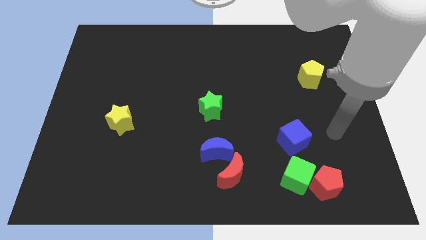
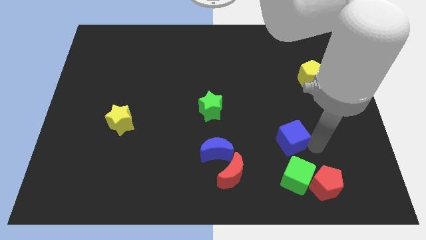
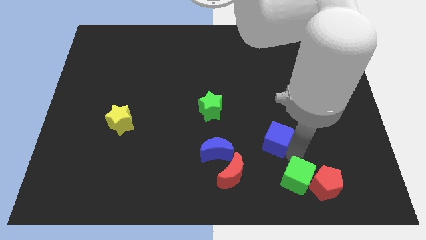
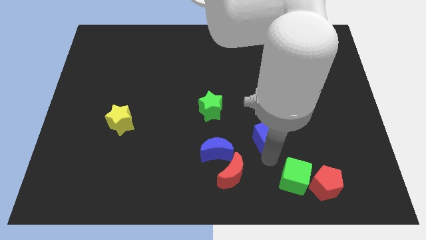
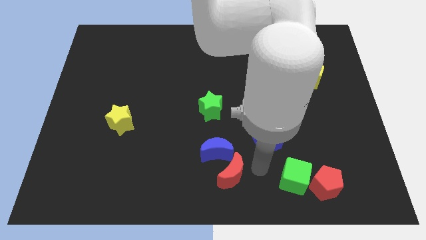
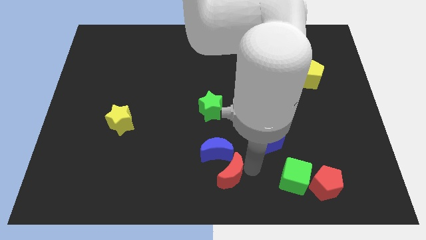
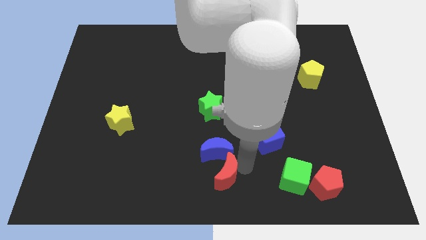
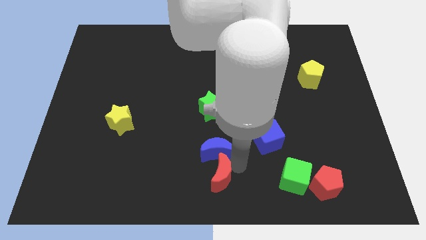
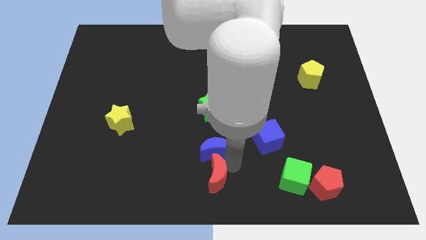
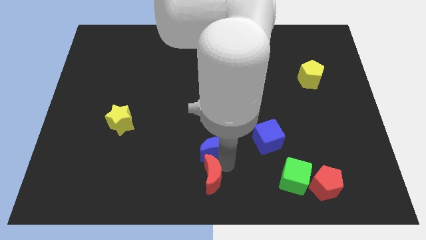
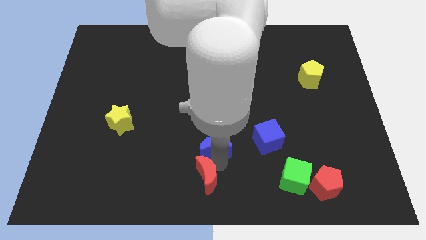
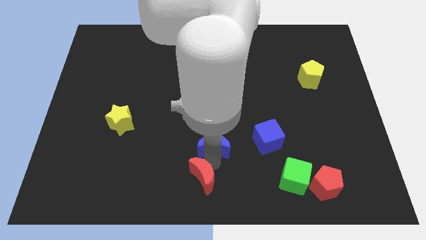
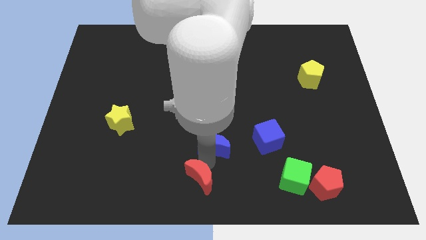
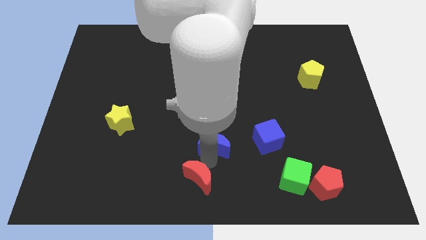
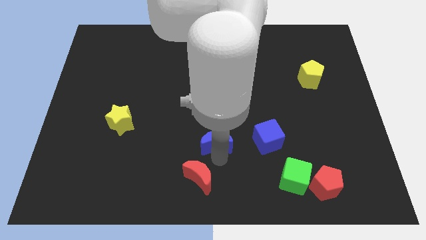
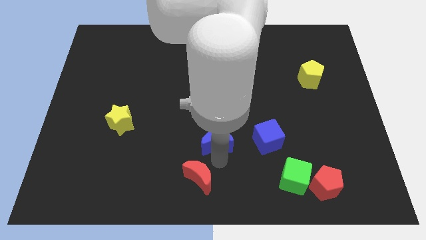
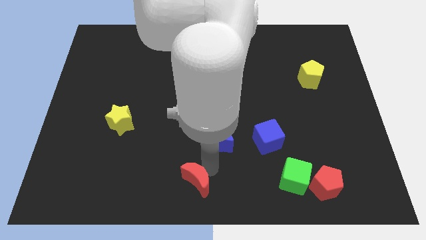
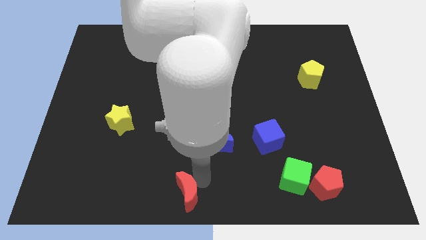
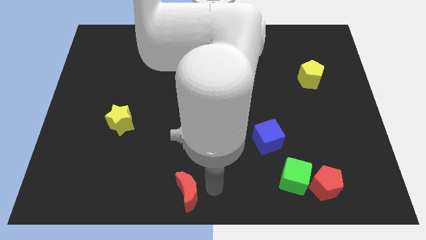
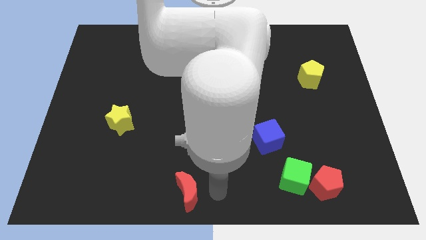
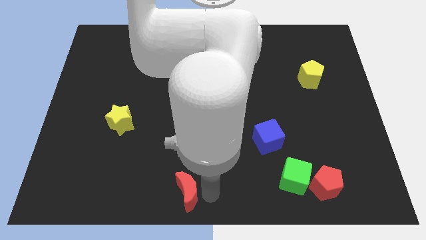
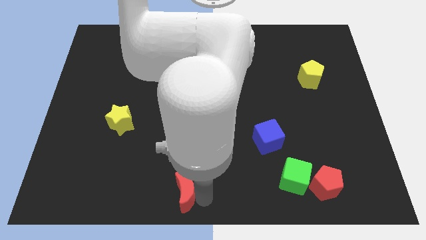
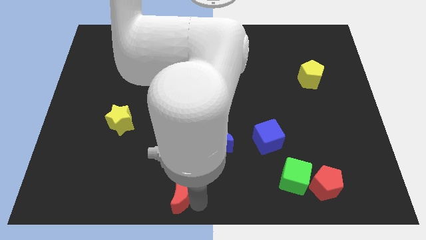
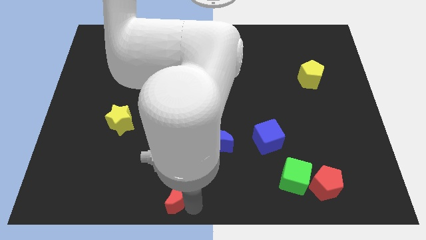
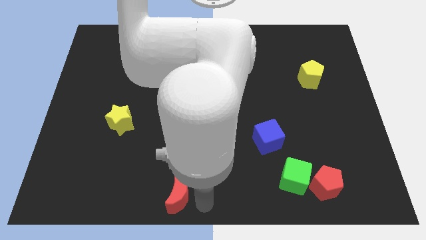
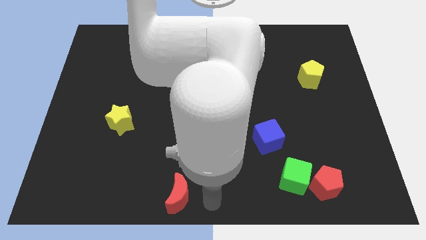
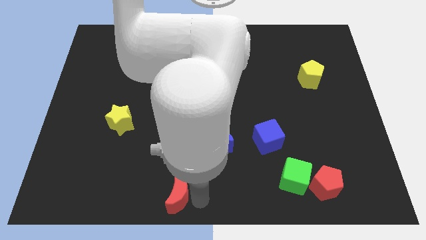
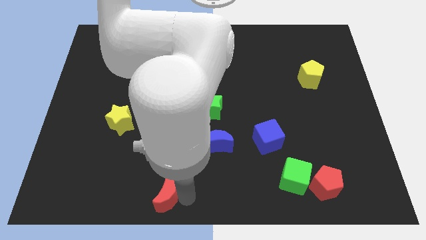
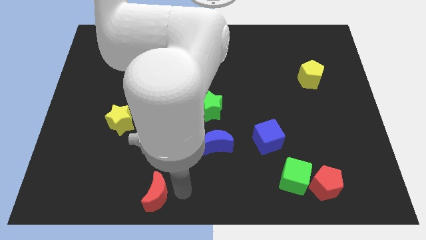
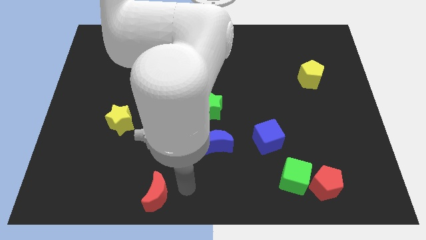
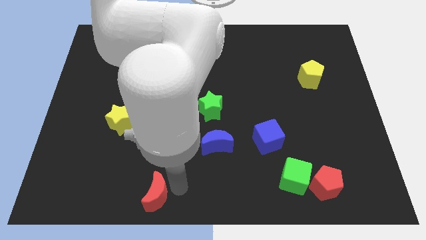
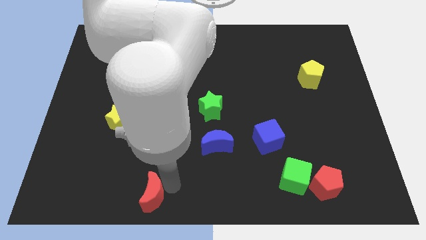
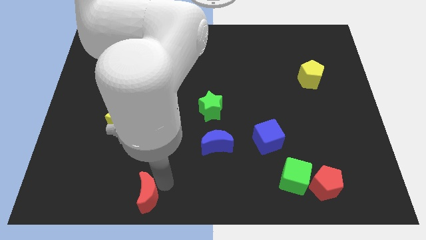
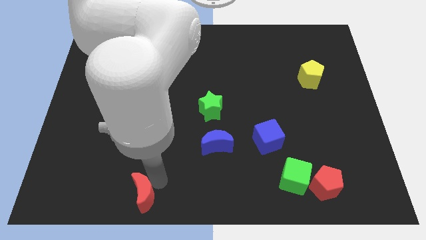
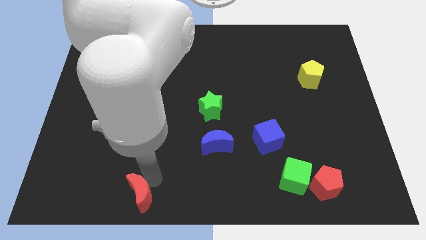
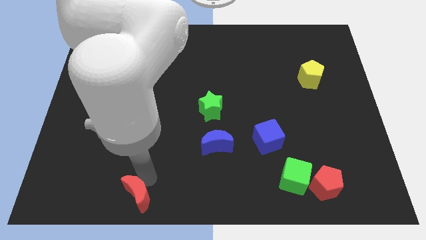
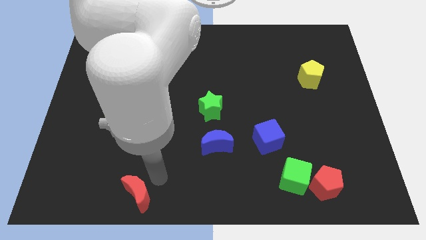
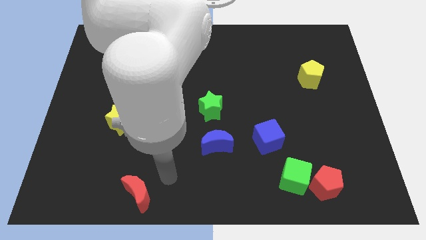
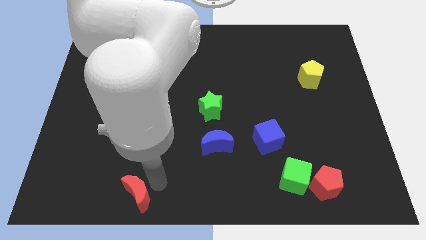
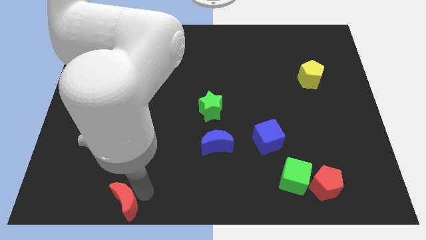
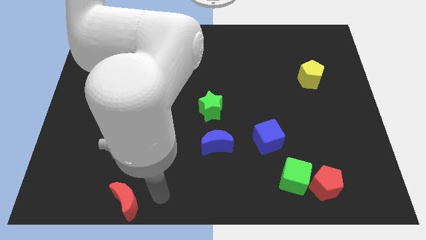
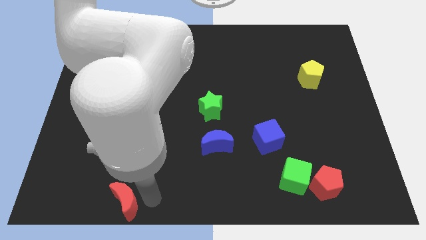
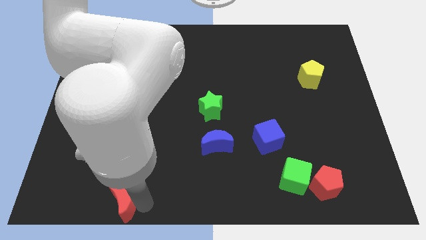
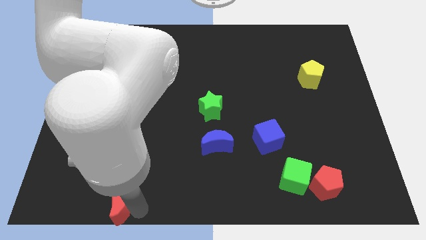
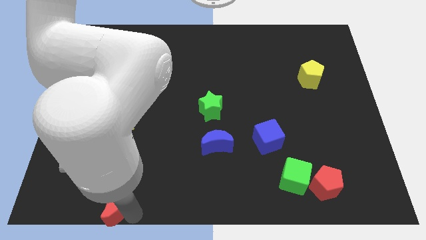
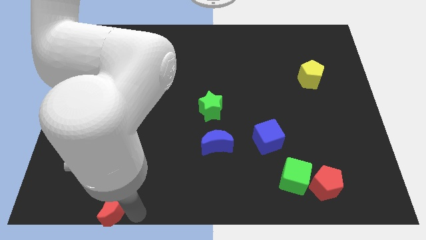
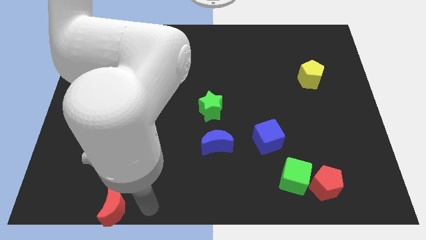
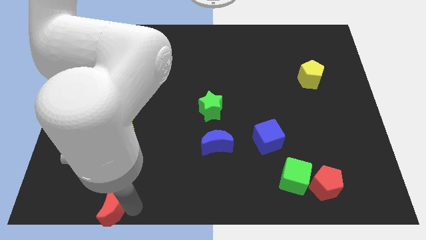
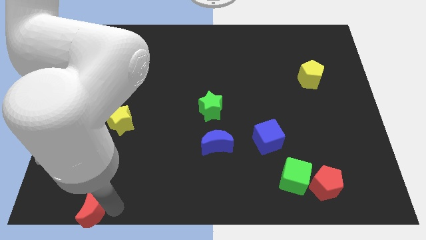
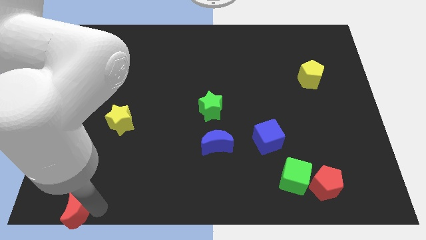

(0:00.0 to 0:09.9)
put the red moon to the bottom left of the board

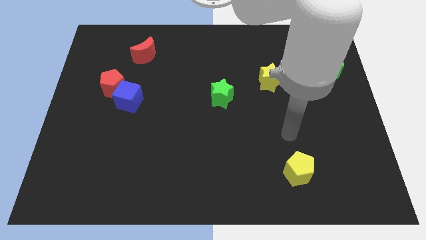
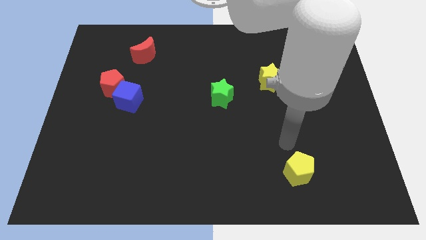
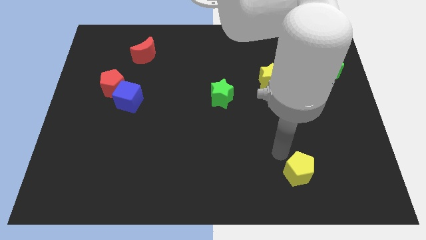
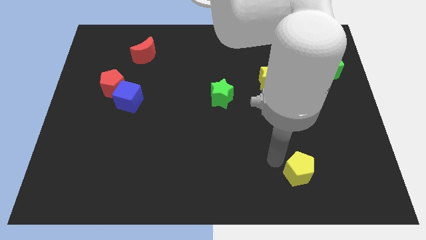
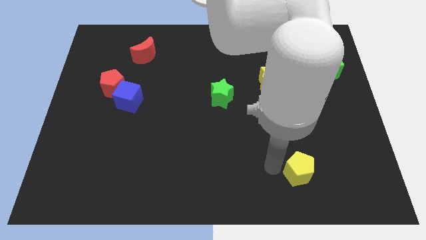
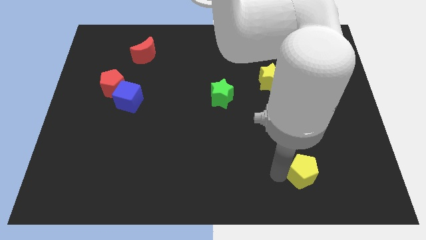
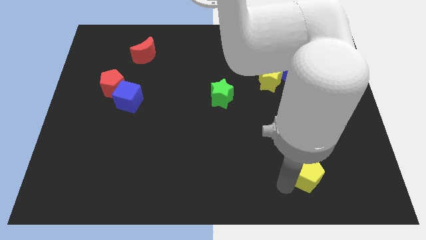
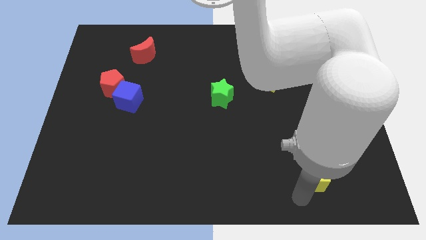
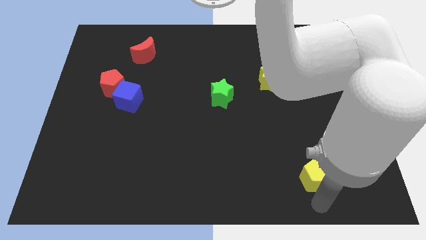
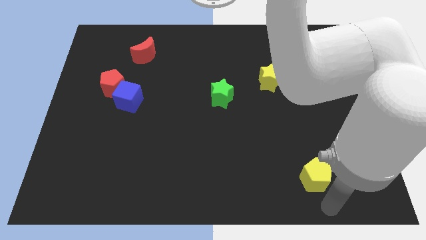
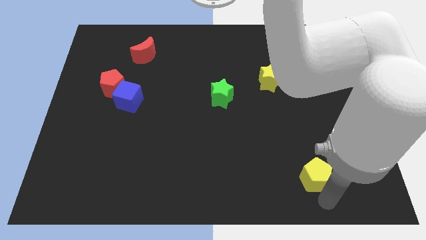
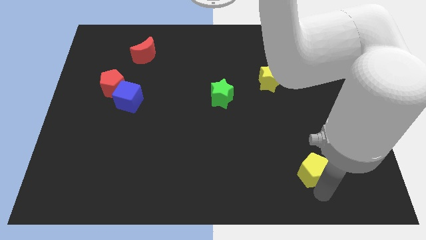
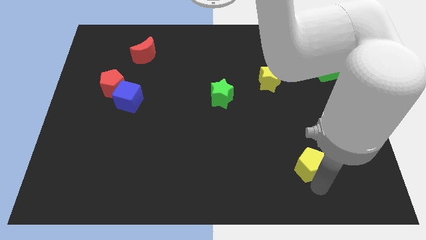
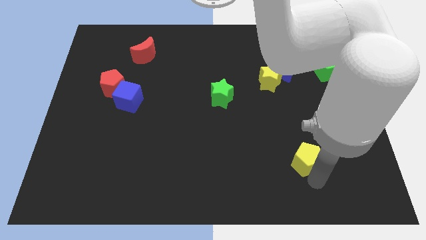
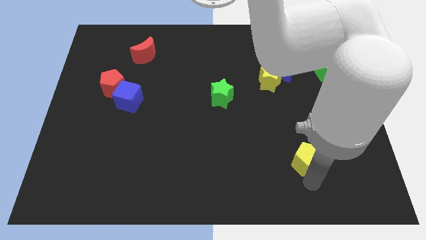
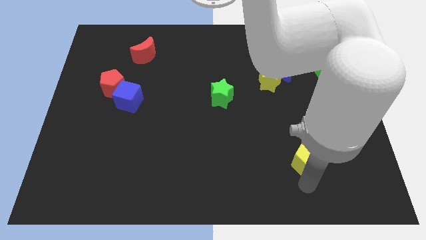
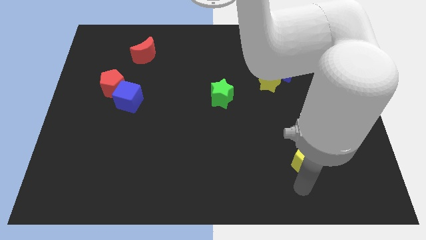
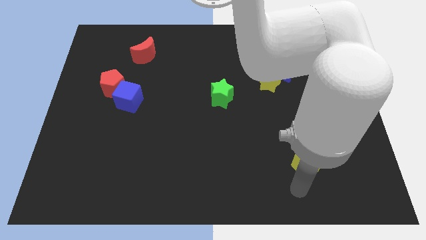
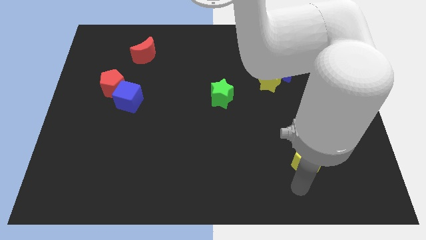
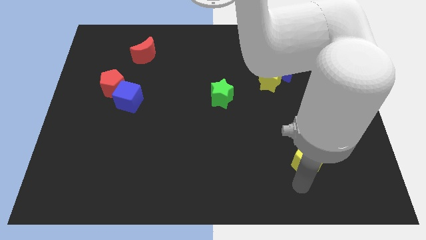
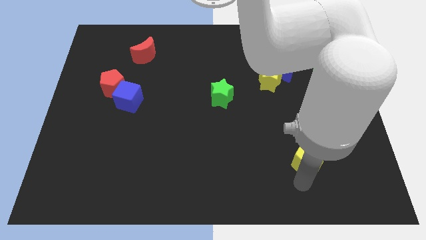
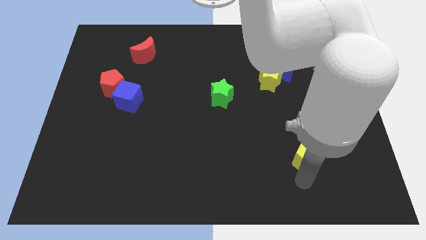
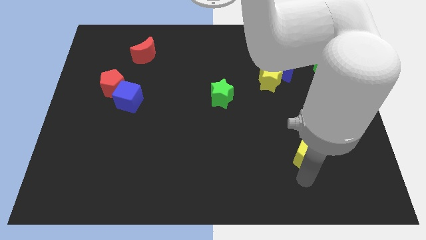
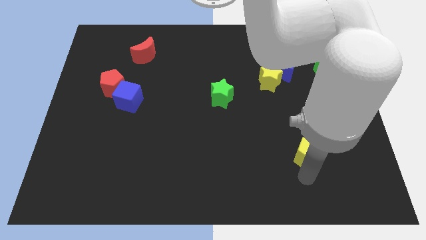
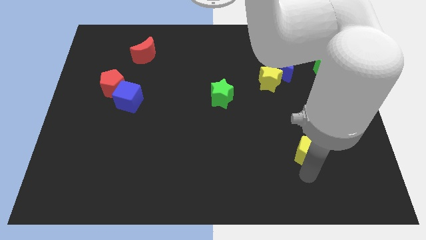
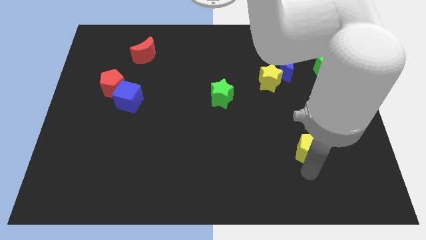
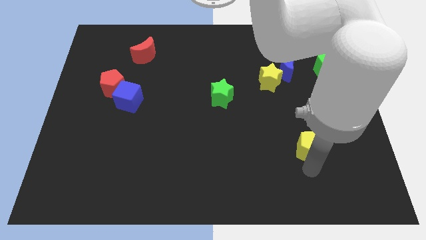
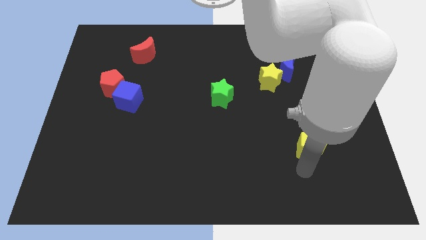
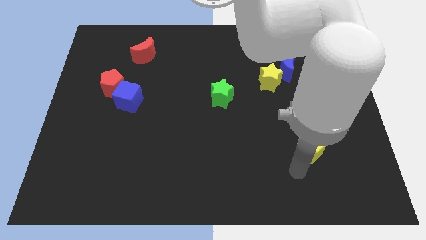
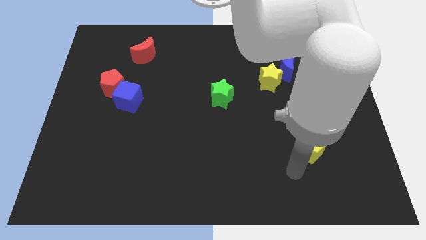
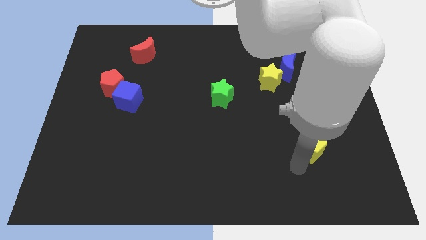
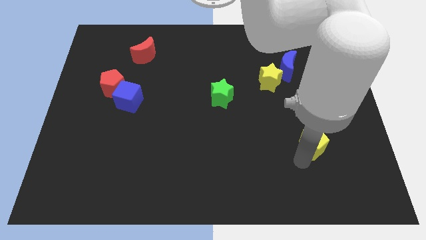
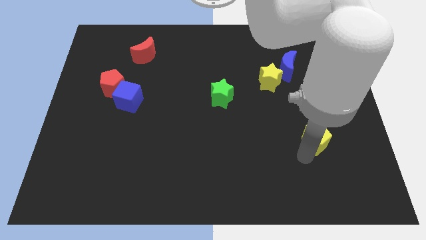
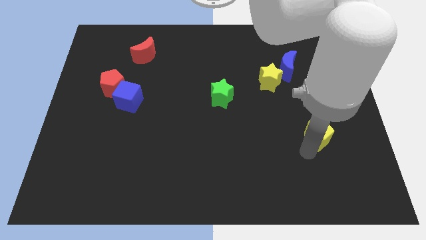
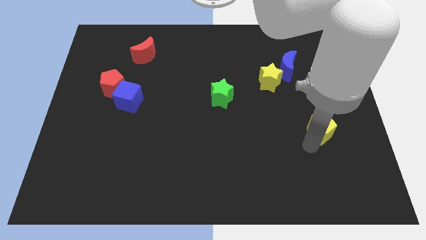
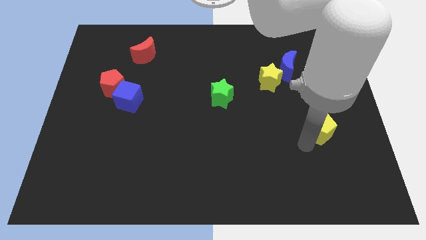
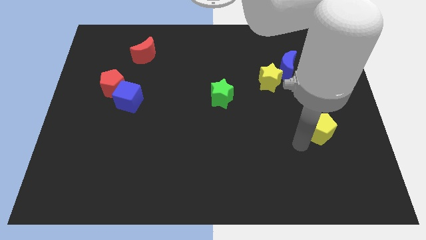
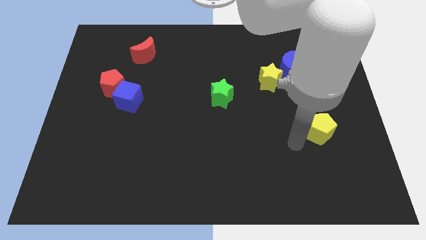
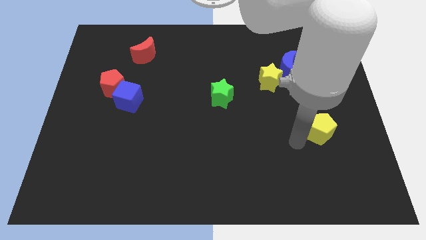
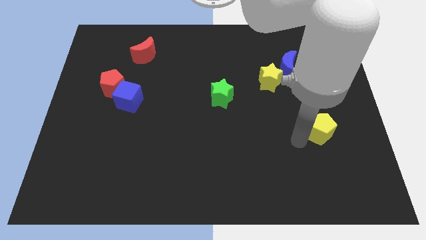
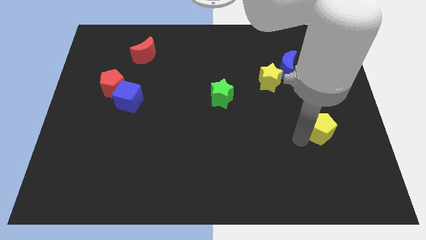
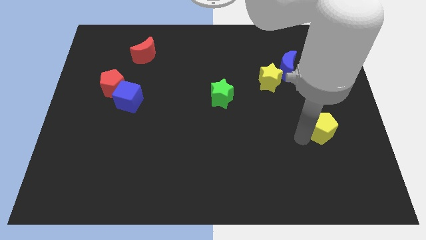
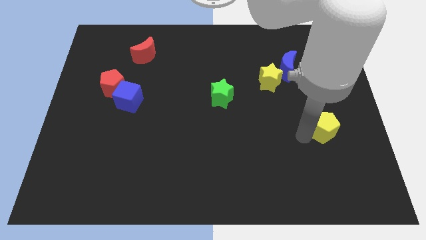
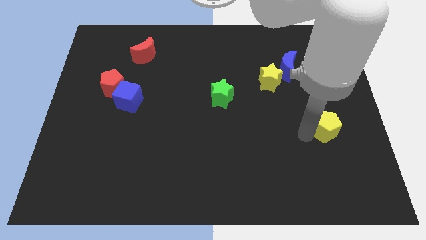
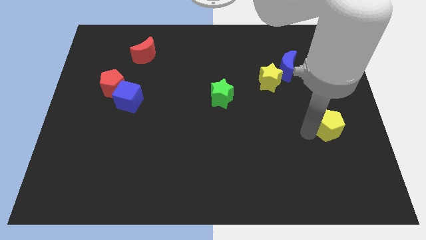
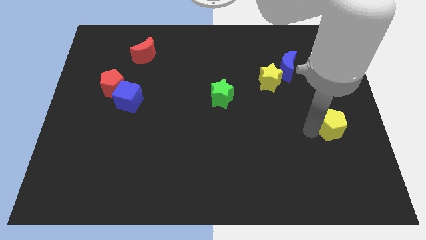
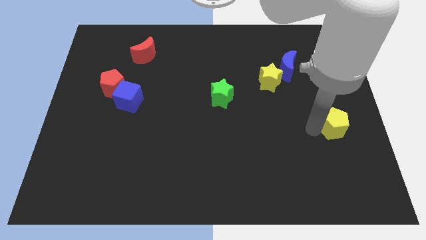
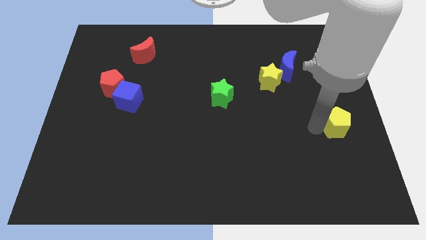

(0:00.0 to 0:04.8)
put the yellow pentagon to the center right
